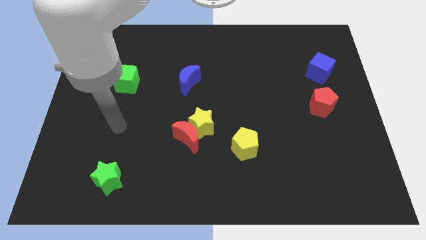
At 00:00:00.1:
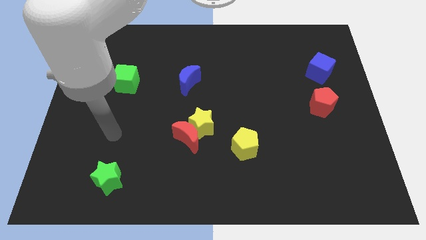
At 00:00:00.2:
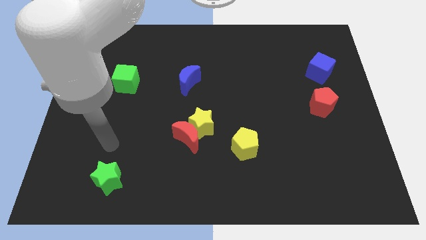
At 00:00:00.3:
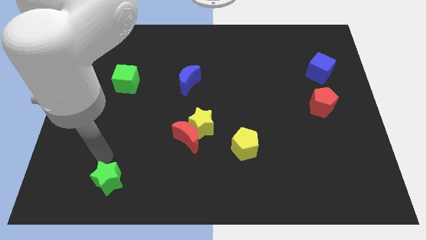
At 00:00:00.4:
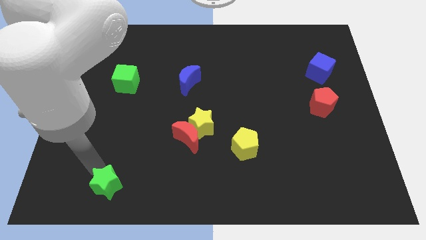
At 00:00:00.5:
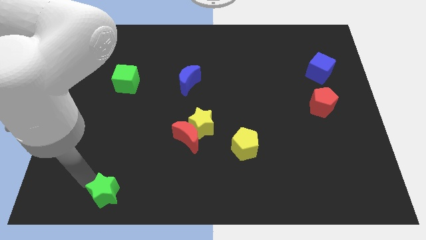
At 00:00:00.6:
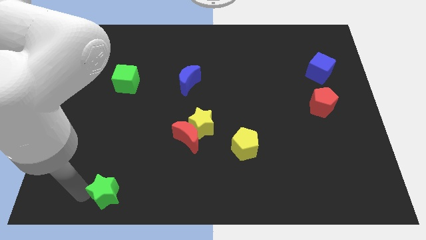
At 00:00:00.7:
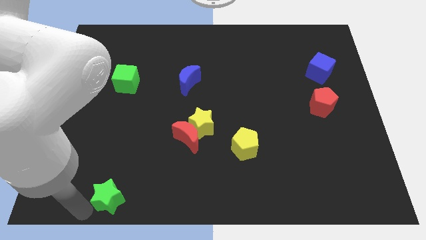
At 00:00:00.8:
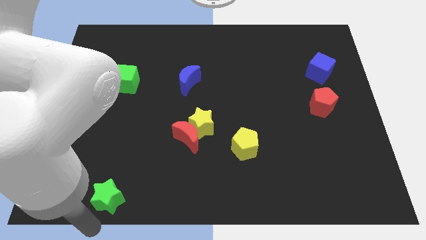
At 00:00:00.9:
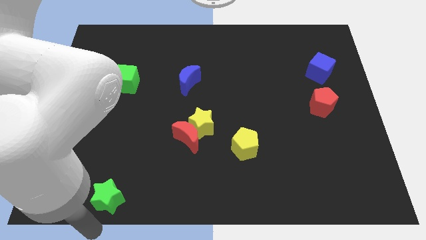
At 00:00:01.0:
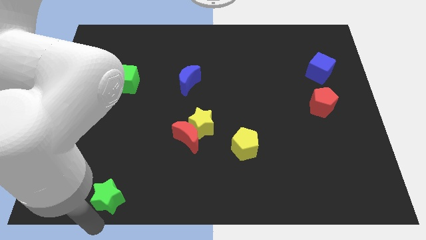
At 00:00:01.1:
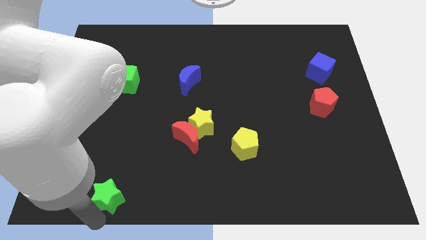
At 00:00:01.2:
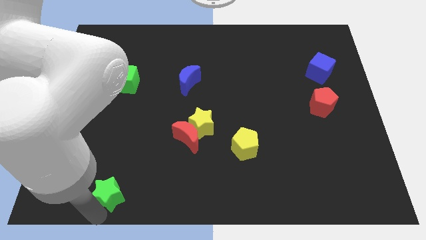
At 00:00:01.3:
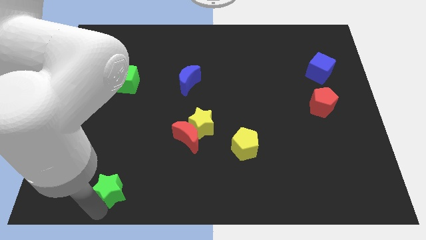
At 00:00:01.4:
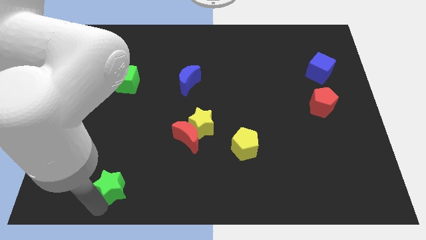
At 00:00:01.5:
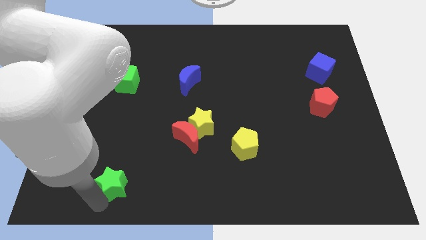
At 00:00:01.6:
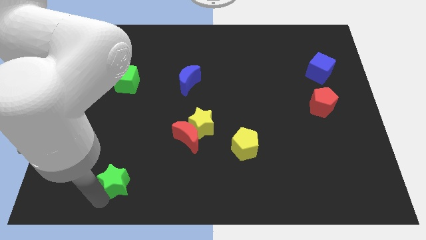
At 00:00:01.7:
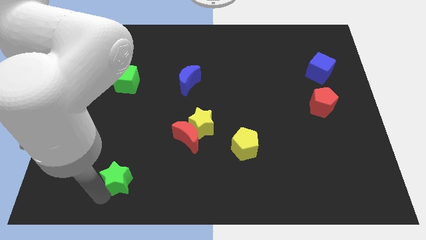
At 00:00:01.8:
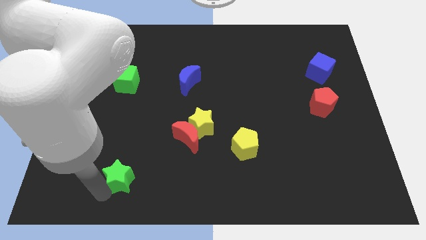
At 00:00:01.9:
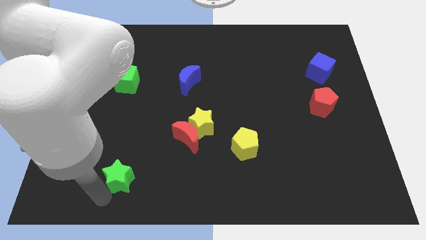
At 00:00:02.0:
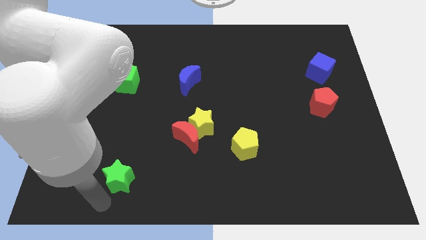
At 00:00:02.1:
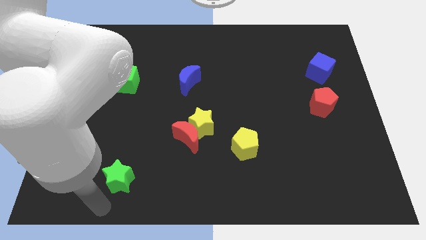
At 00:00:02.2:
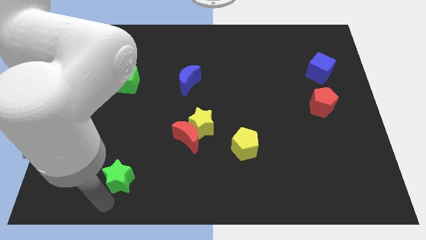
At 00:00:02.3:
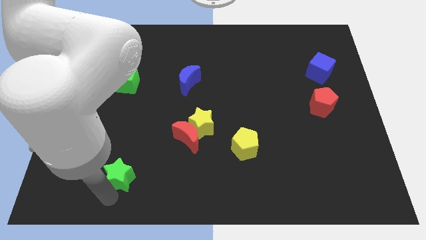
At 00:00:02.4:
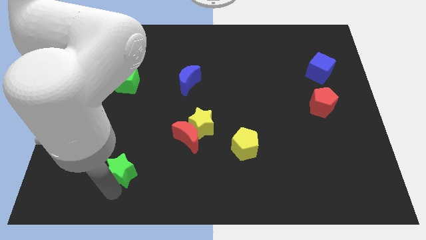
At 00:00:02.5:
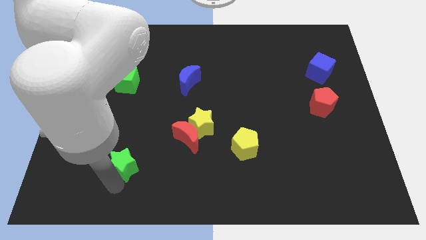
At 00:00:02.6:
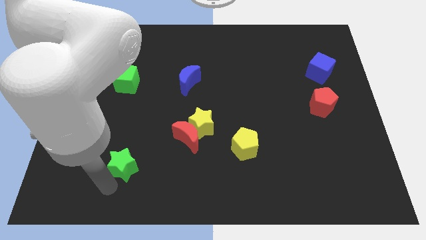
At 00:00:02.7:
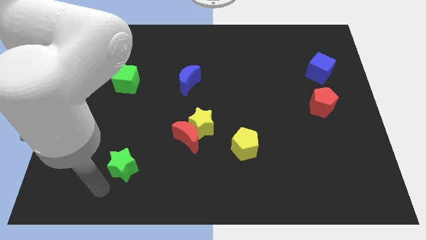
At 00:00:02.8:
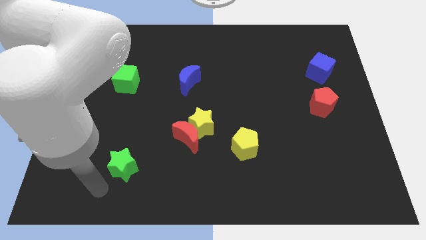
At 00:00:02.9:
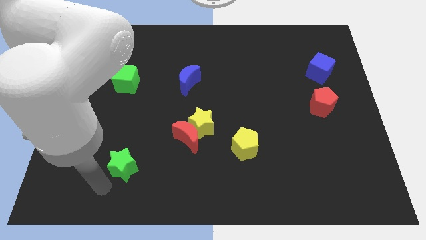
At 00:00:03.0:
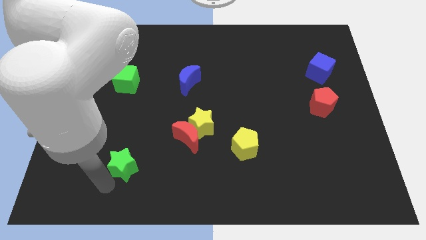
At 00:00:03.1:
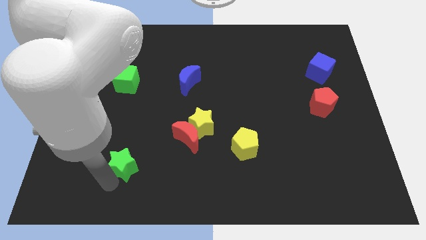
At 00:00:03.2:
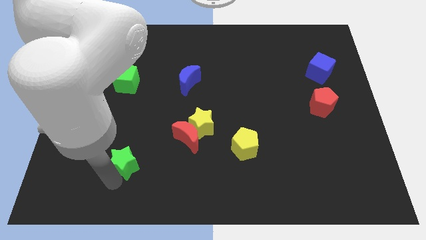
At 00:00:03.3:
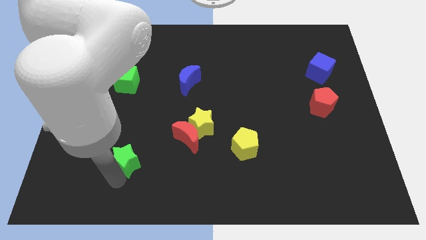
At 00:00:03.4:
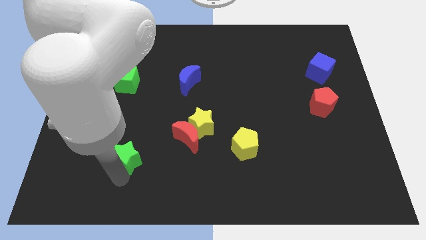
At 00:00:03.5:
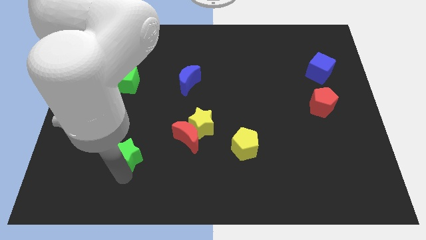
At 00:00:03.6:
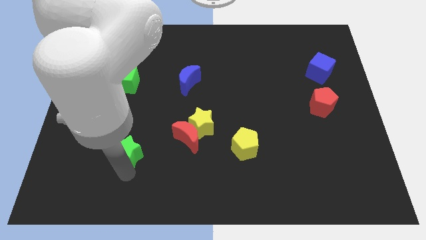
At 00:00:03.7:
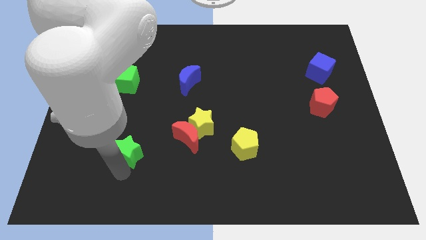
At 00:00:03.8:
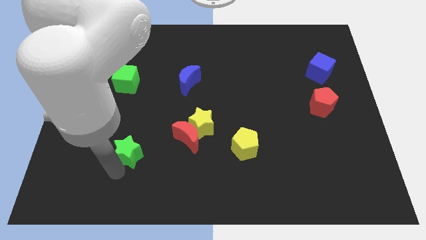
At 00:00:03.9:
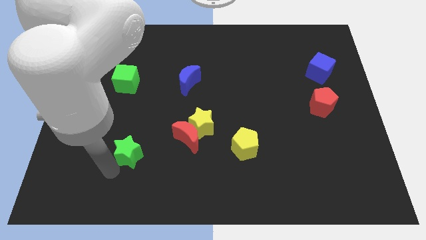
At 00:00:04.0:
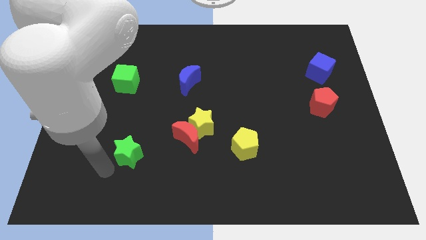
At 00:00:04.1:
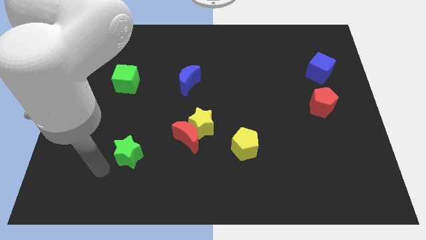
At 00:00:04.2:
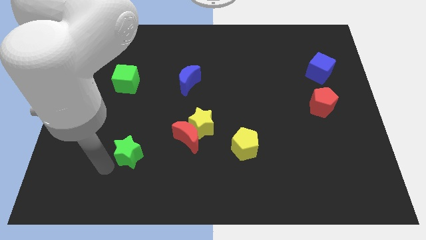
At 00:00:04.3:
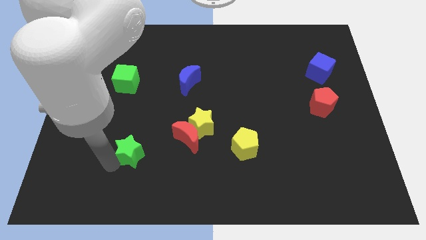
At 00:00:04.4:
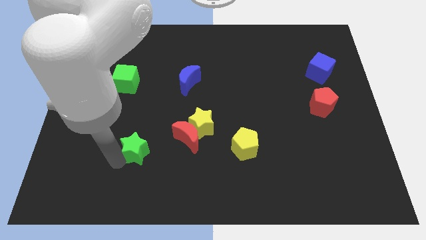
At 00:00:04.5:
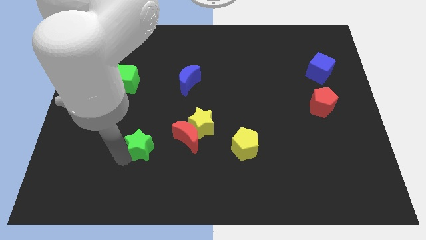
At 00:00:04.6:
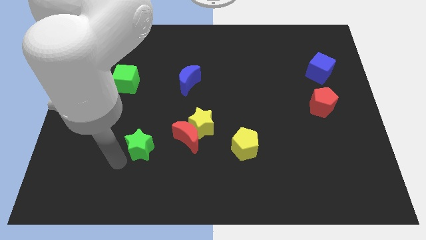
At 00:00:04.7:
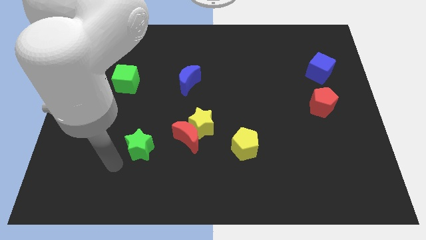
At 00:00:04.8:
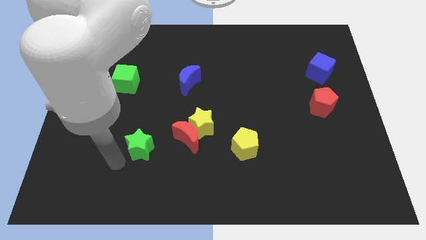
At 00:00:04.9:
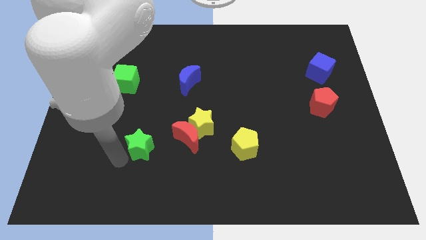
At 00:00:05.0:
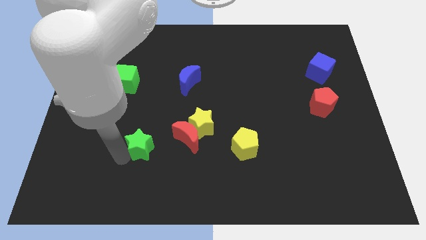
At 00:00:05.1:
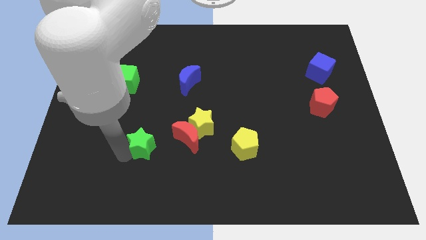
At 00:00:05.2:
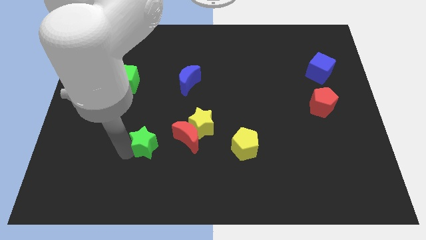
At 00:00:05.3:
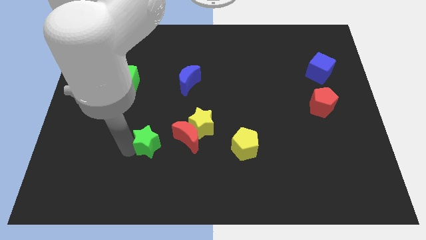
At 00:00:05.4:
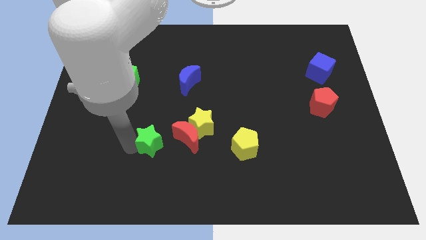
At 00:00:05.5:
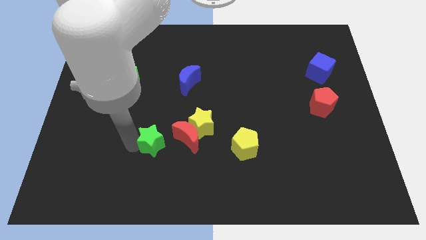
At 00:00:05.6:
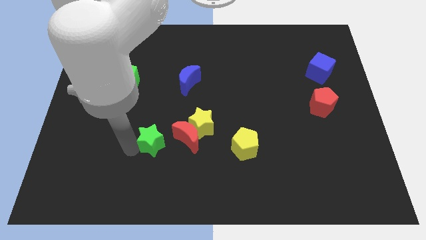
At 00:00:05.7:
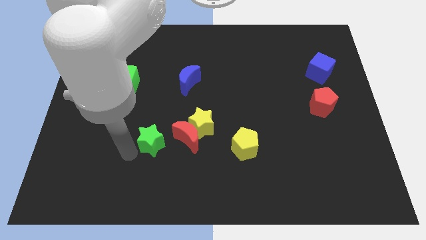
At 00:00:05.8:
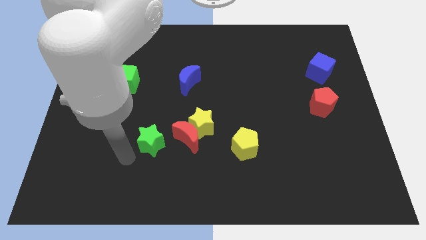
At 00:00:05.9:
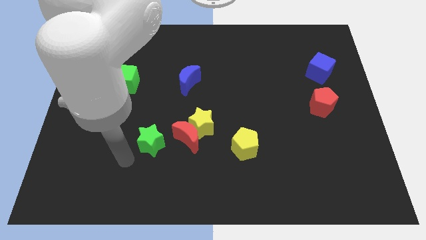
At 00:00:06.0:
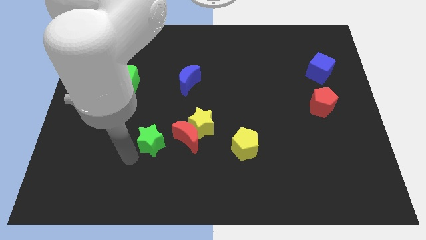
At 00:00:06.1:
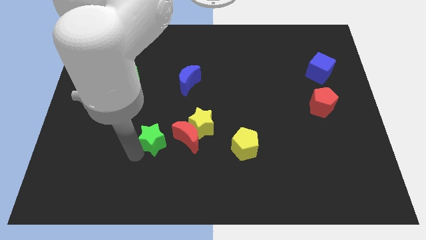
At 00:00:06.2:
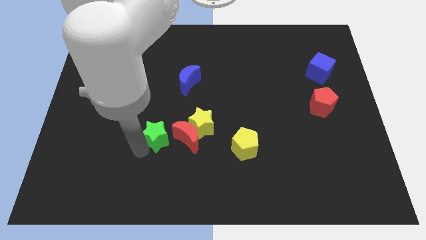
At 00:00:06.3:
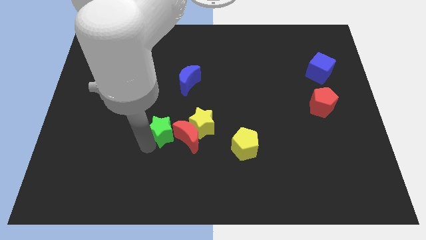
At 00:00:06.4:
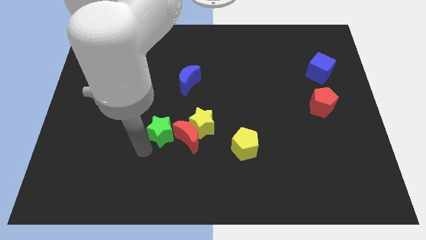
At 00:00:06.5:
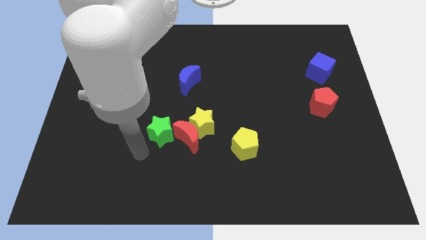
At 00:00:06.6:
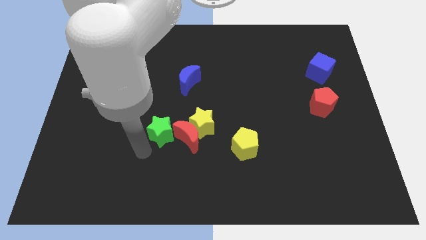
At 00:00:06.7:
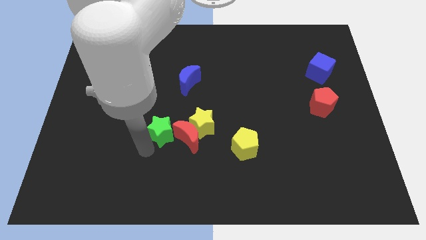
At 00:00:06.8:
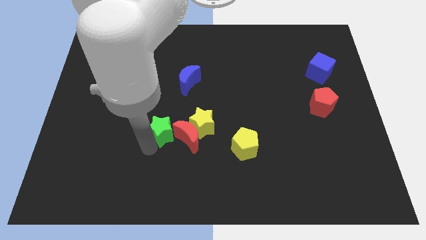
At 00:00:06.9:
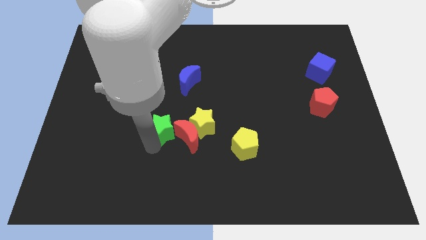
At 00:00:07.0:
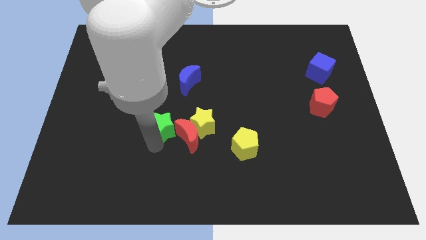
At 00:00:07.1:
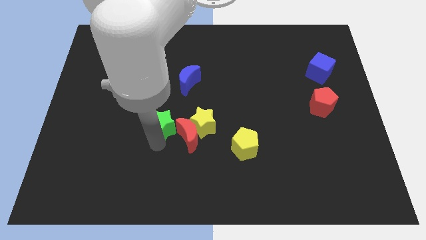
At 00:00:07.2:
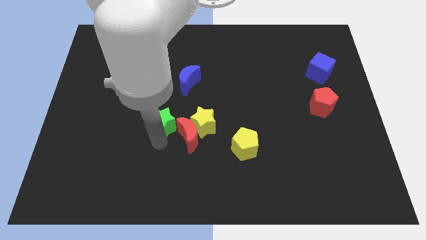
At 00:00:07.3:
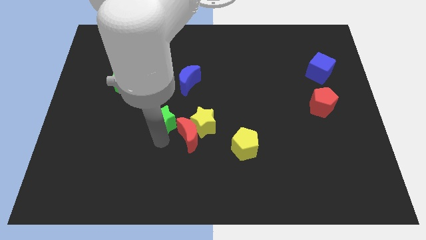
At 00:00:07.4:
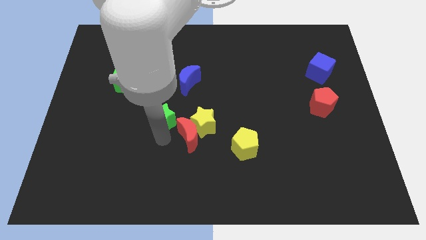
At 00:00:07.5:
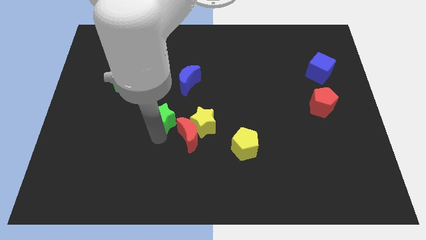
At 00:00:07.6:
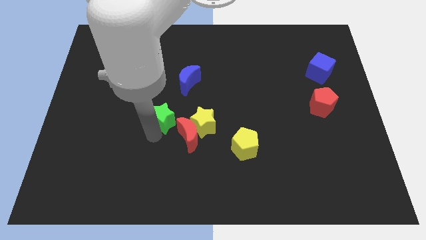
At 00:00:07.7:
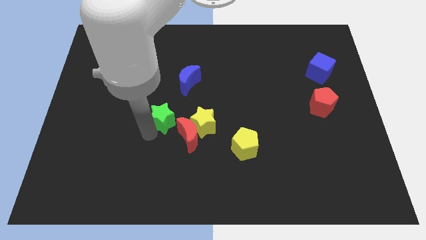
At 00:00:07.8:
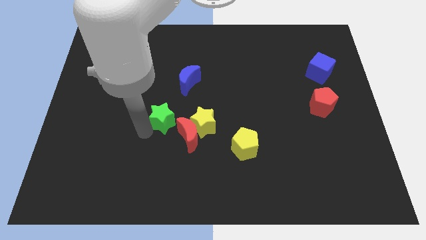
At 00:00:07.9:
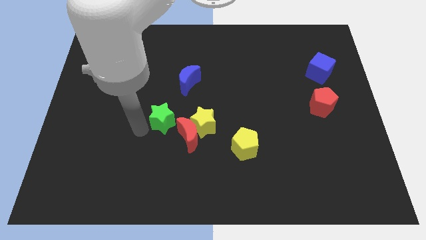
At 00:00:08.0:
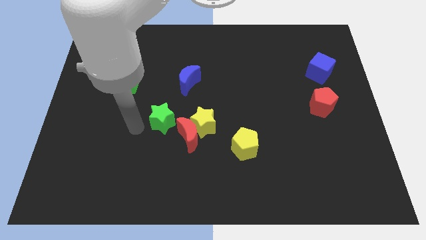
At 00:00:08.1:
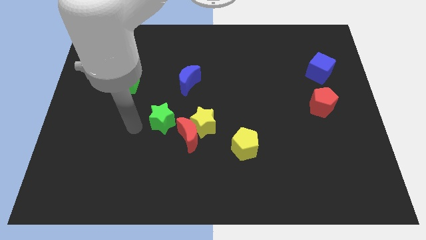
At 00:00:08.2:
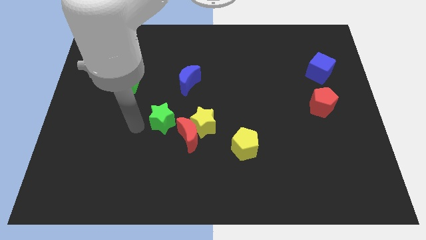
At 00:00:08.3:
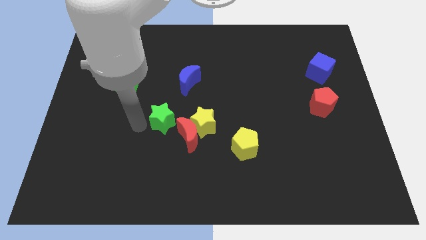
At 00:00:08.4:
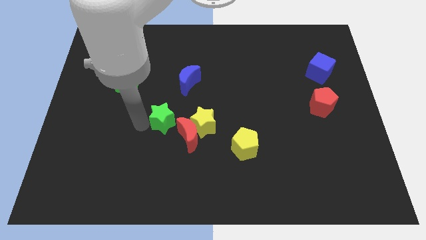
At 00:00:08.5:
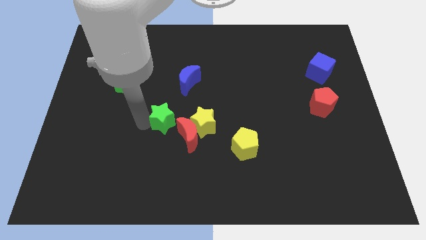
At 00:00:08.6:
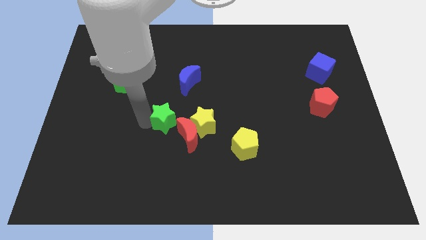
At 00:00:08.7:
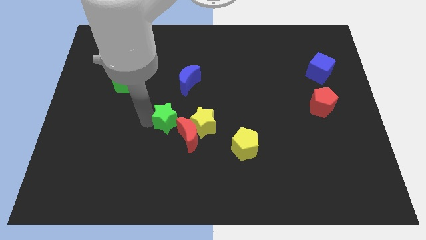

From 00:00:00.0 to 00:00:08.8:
move the green star to the center
